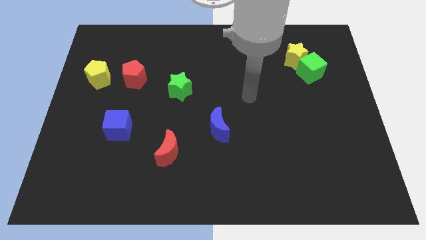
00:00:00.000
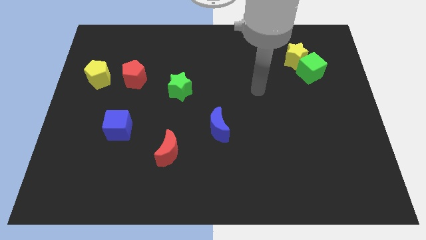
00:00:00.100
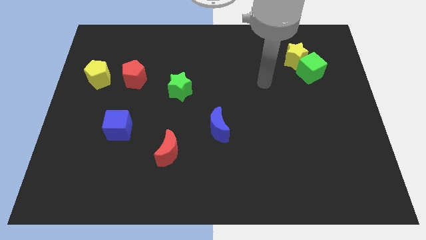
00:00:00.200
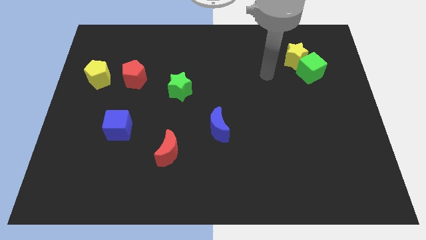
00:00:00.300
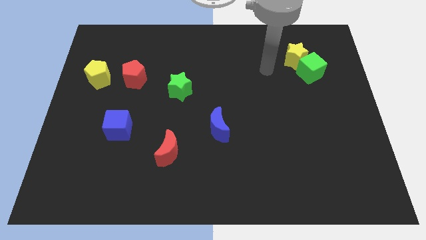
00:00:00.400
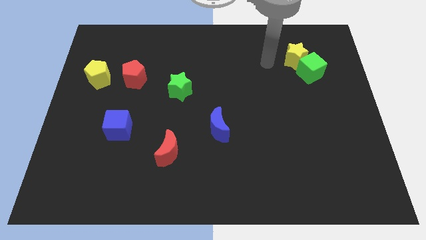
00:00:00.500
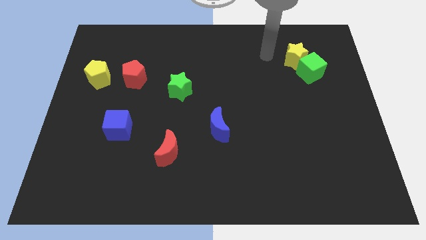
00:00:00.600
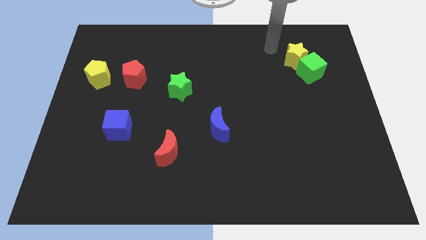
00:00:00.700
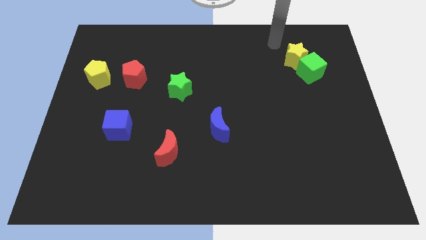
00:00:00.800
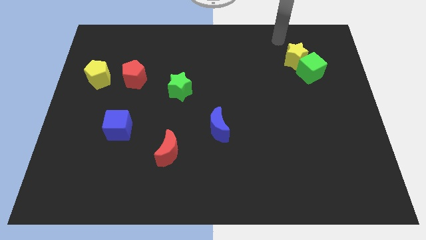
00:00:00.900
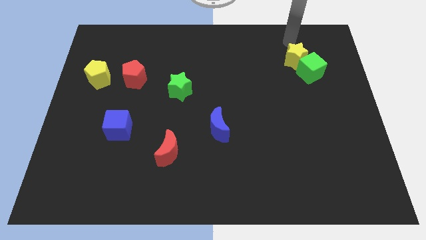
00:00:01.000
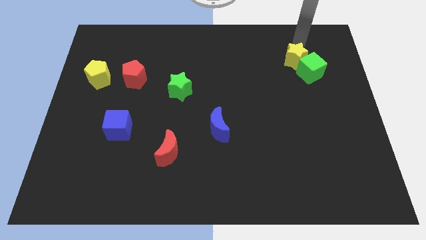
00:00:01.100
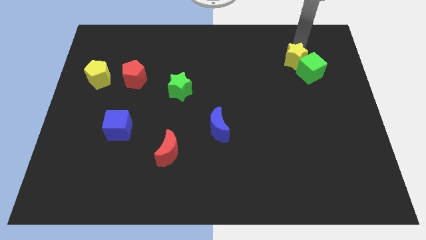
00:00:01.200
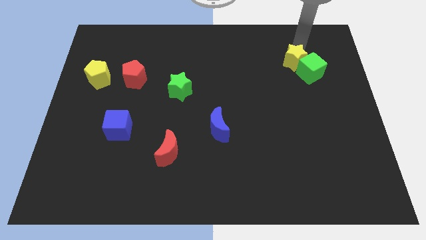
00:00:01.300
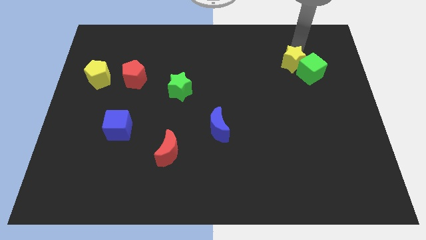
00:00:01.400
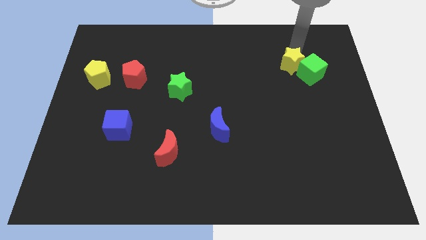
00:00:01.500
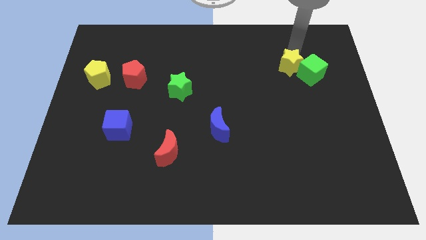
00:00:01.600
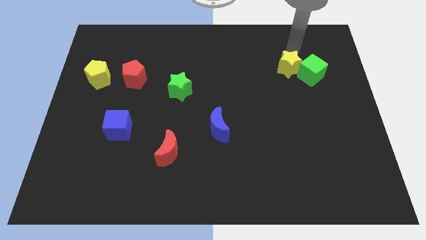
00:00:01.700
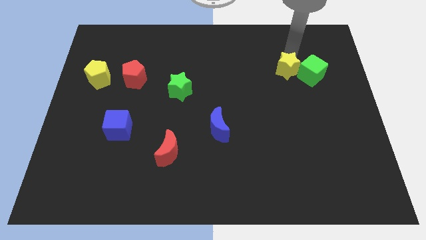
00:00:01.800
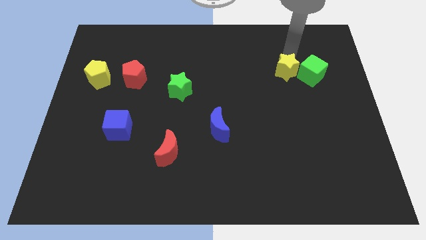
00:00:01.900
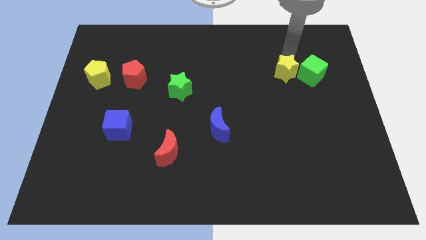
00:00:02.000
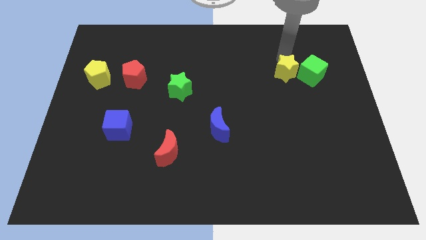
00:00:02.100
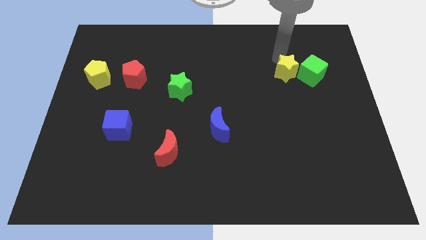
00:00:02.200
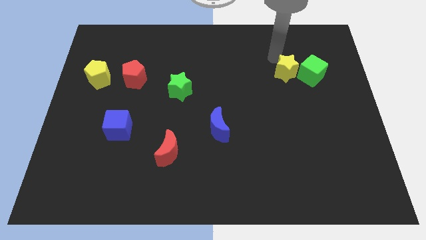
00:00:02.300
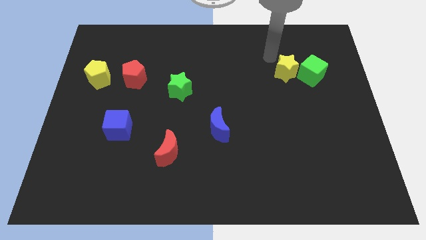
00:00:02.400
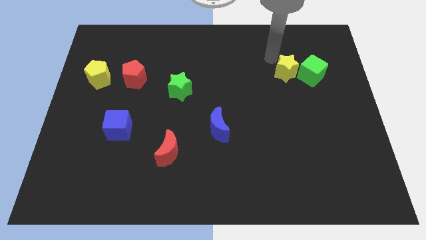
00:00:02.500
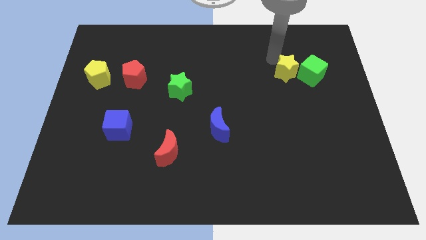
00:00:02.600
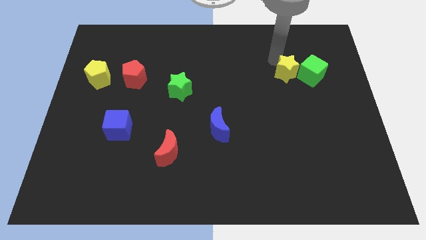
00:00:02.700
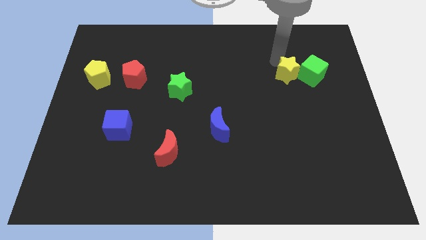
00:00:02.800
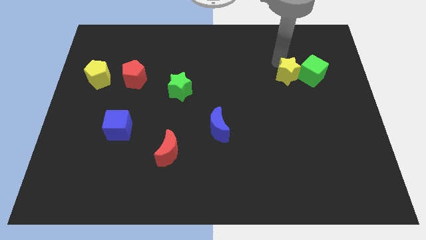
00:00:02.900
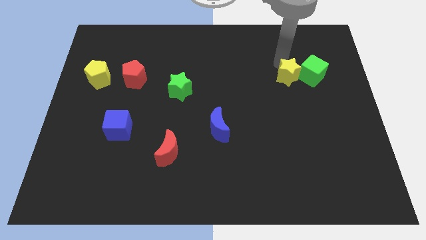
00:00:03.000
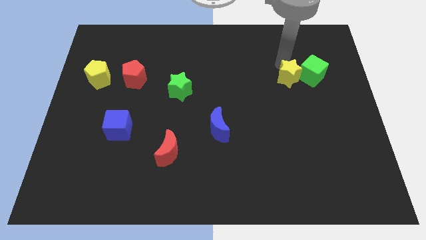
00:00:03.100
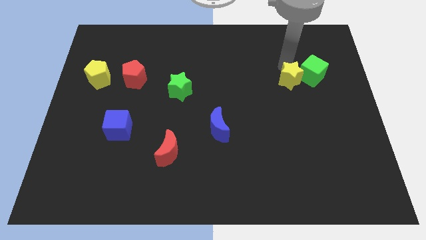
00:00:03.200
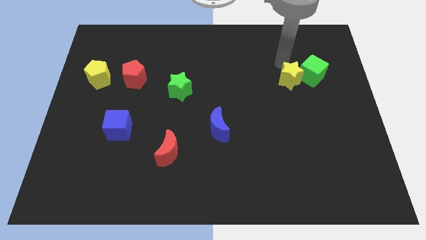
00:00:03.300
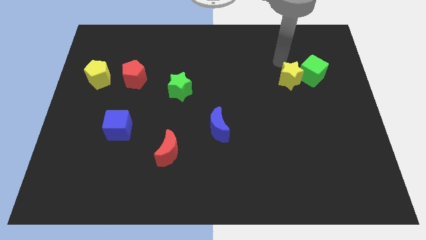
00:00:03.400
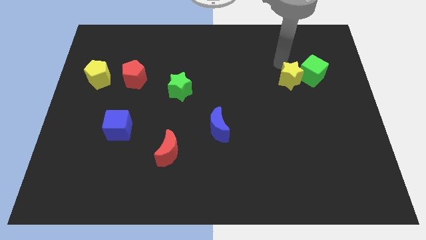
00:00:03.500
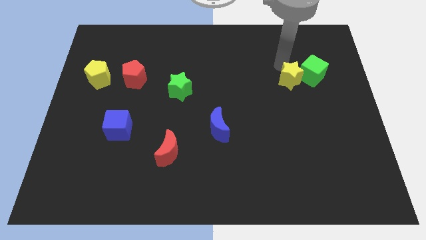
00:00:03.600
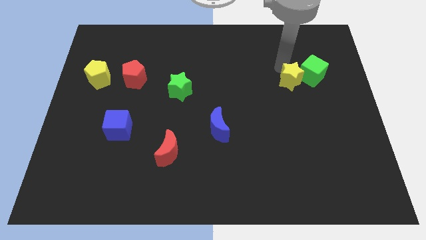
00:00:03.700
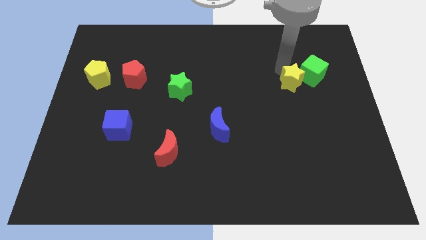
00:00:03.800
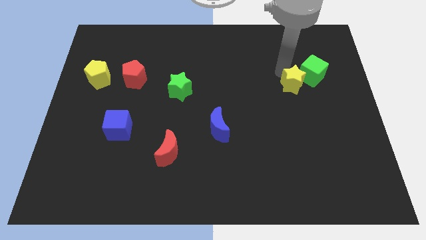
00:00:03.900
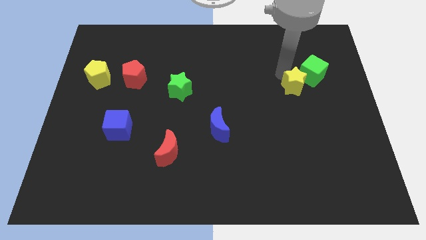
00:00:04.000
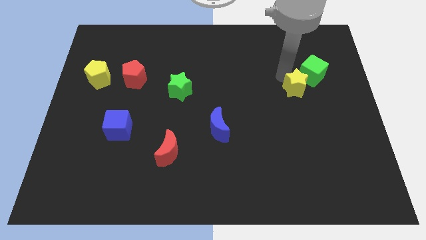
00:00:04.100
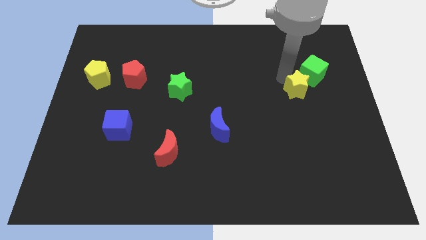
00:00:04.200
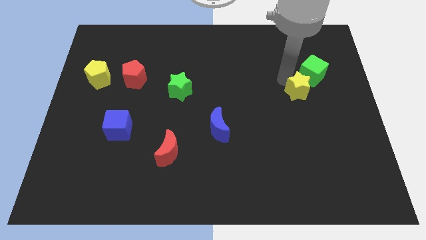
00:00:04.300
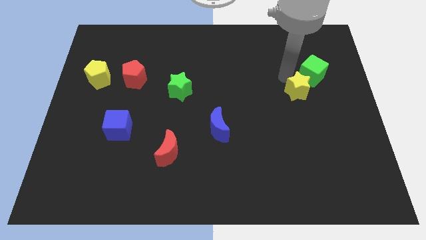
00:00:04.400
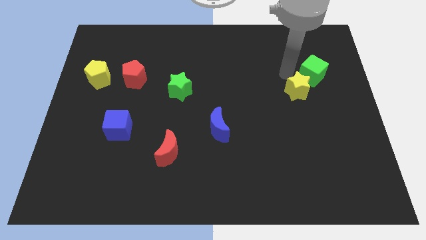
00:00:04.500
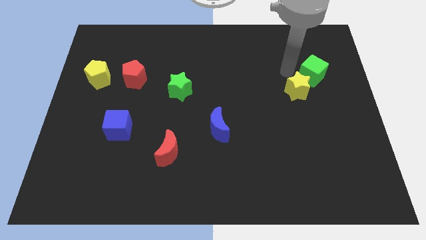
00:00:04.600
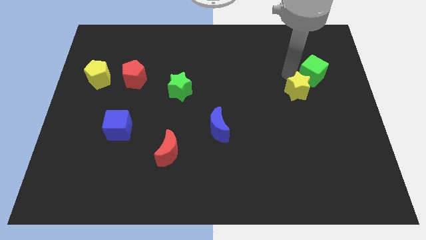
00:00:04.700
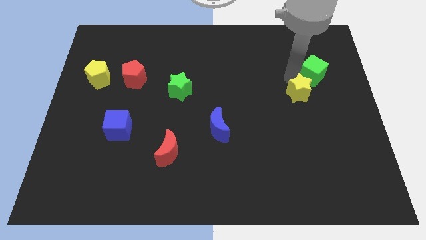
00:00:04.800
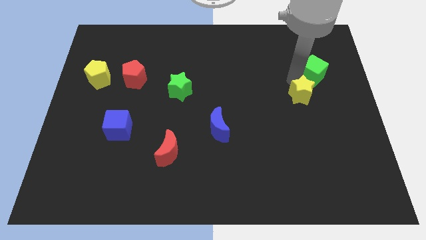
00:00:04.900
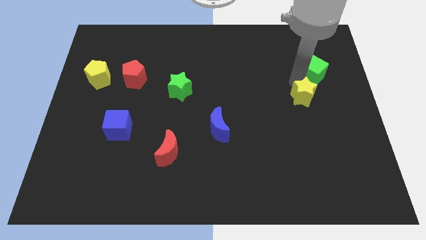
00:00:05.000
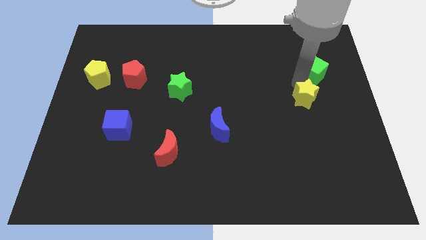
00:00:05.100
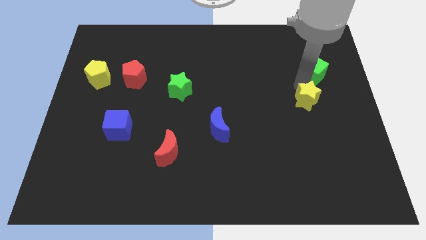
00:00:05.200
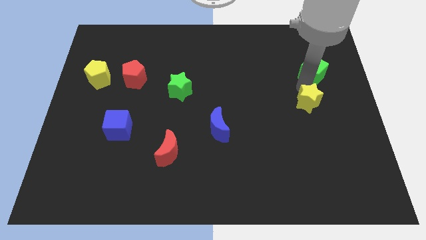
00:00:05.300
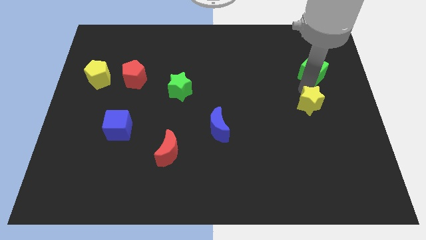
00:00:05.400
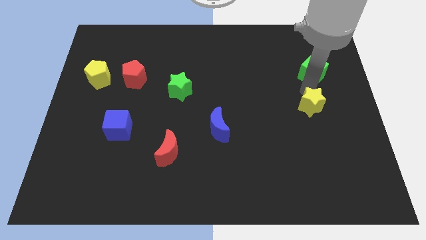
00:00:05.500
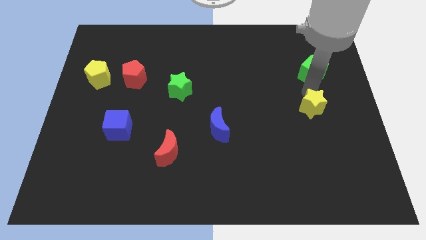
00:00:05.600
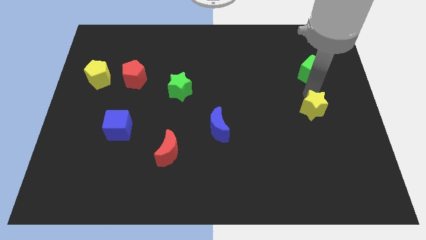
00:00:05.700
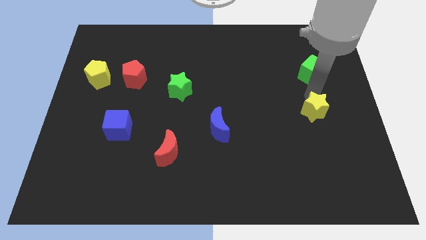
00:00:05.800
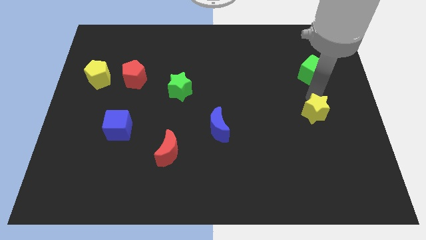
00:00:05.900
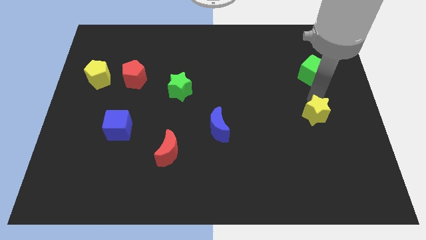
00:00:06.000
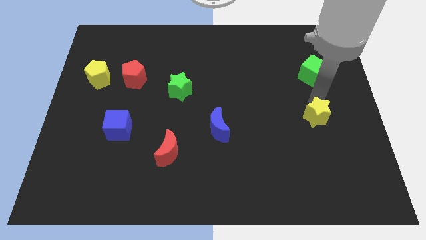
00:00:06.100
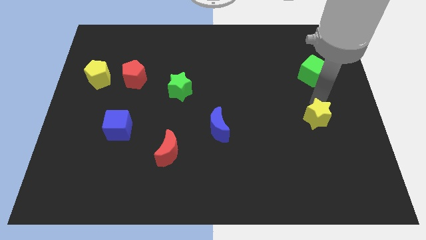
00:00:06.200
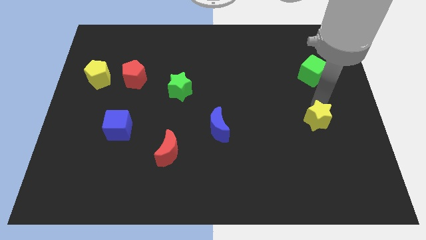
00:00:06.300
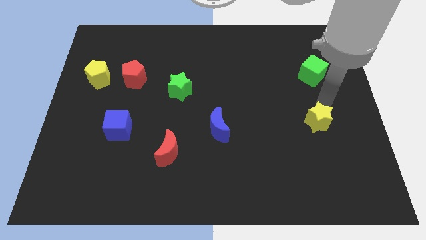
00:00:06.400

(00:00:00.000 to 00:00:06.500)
push the yellow star downwards

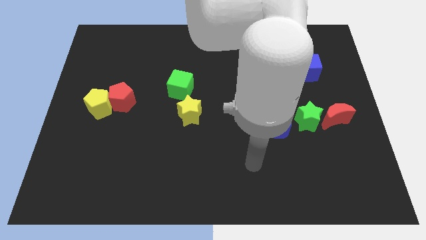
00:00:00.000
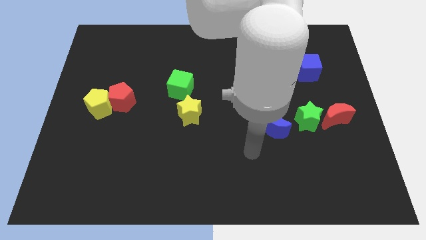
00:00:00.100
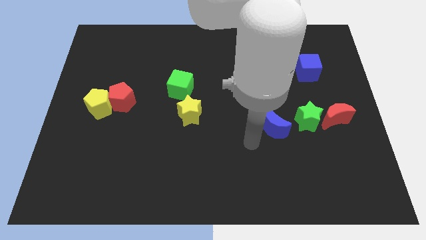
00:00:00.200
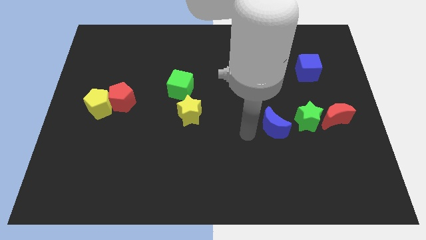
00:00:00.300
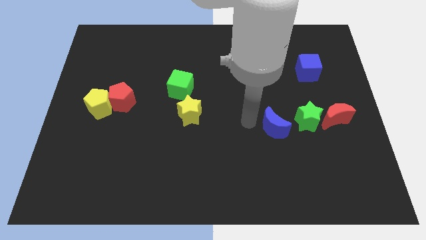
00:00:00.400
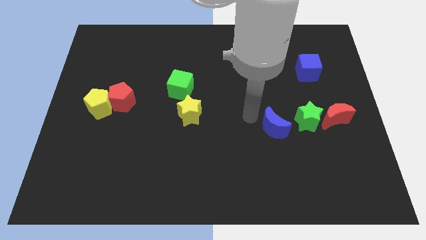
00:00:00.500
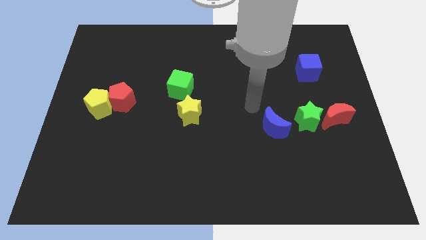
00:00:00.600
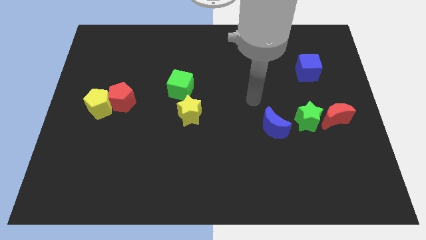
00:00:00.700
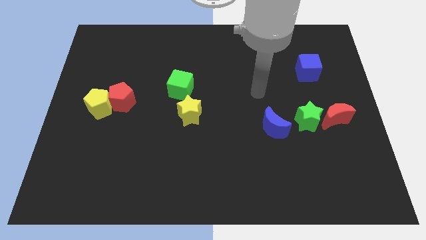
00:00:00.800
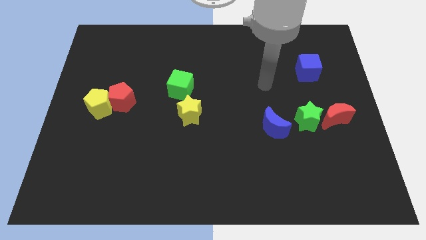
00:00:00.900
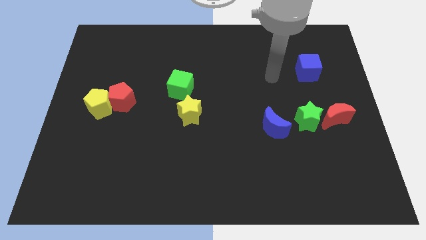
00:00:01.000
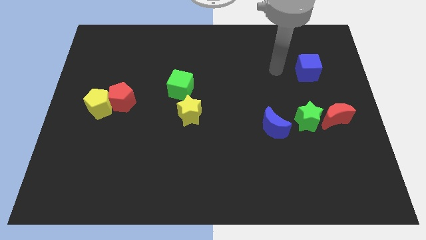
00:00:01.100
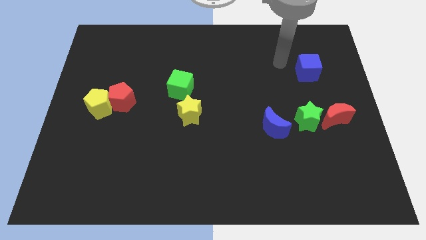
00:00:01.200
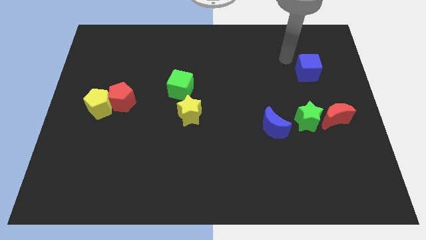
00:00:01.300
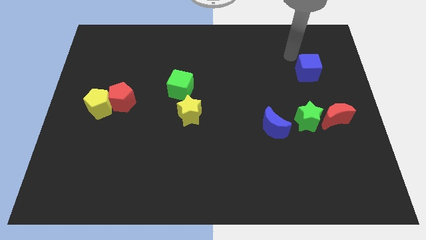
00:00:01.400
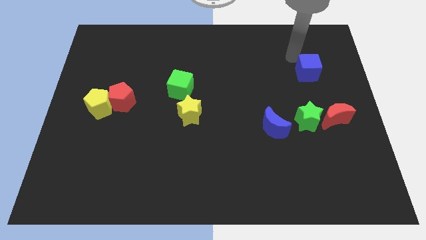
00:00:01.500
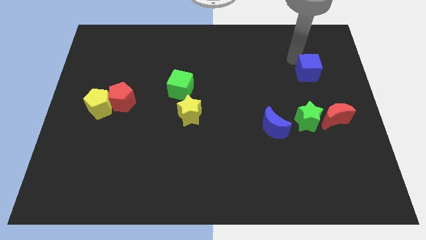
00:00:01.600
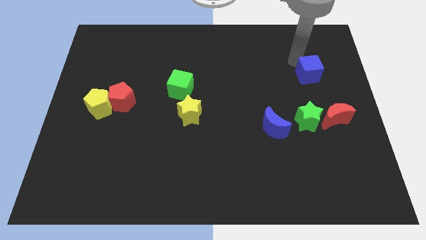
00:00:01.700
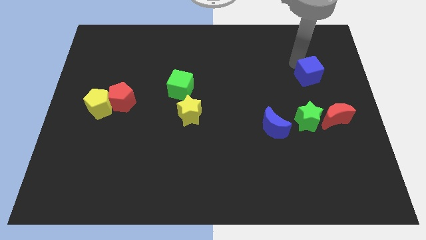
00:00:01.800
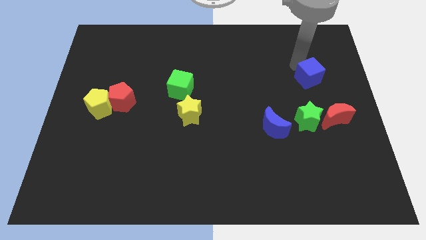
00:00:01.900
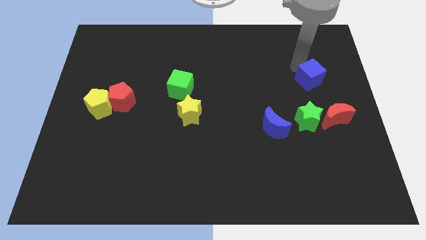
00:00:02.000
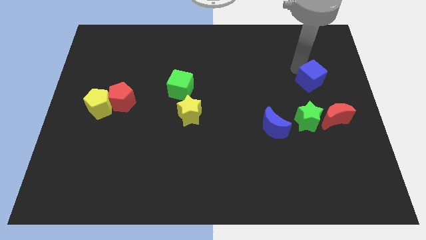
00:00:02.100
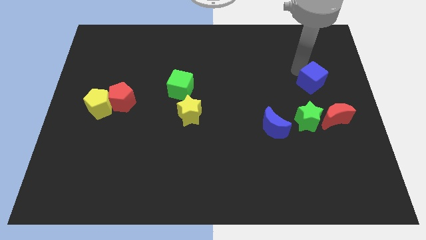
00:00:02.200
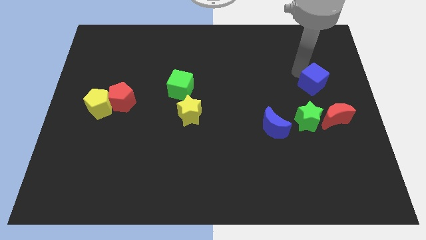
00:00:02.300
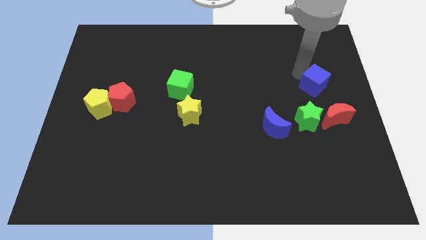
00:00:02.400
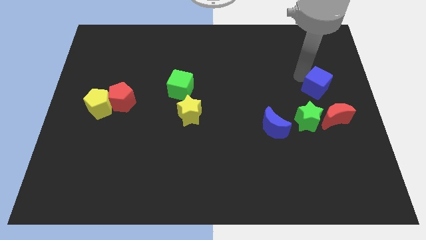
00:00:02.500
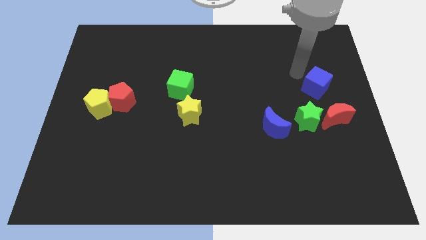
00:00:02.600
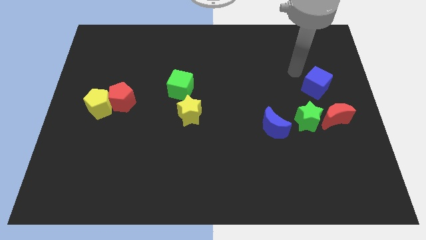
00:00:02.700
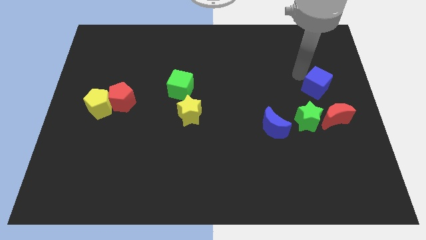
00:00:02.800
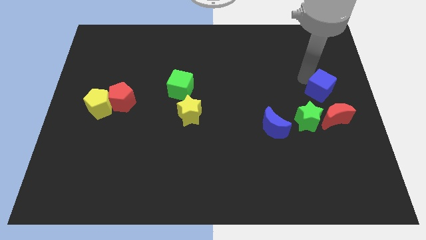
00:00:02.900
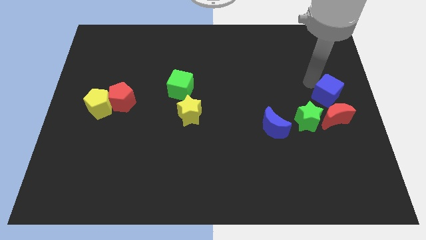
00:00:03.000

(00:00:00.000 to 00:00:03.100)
slightly slide the blue cube down
